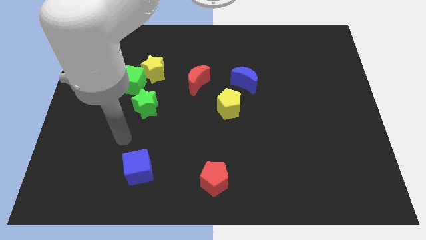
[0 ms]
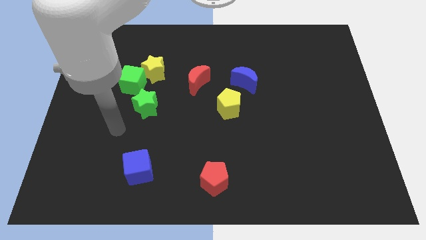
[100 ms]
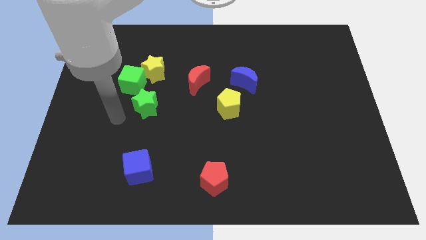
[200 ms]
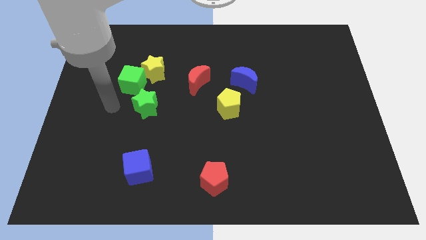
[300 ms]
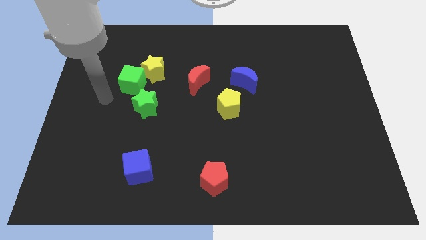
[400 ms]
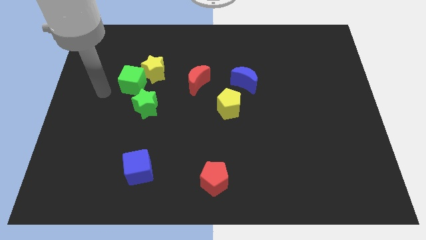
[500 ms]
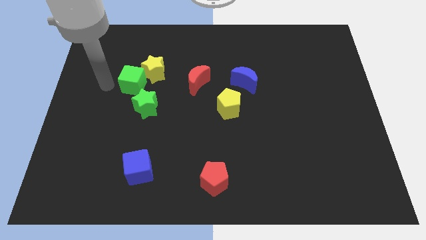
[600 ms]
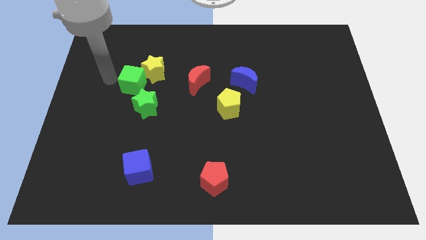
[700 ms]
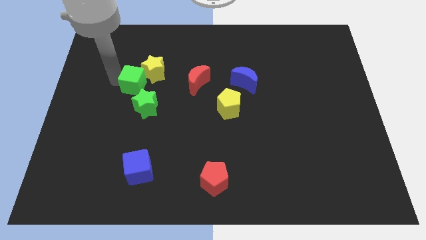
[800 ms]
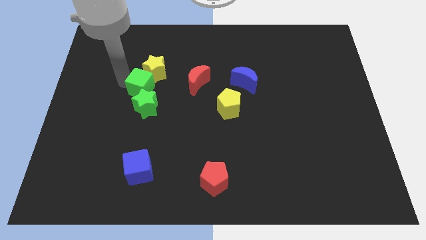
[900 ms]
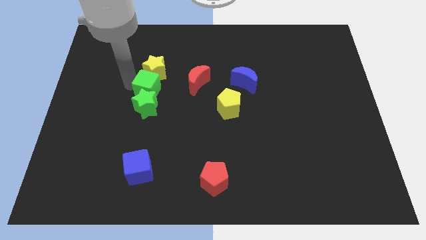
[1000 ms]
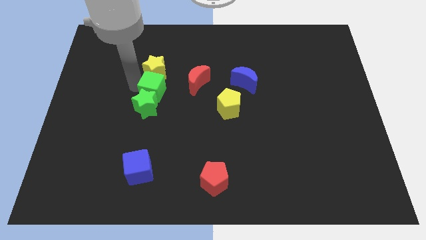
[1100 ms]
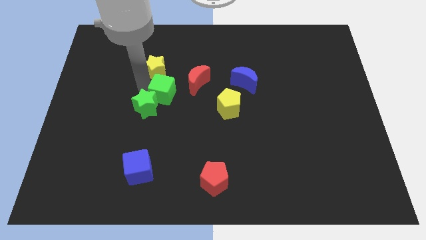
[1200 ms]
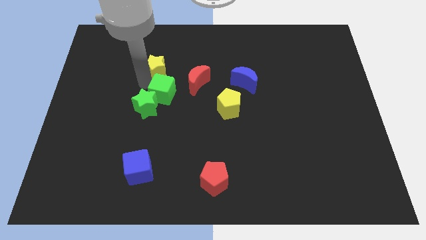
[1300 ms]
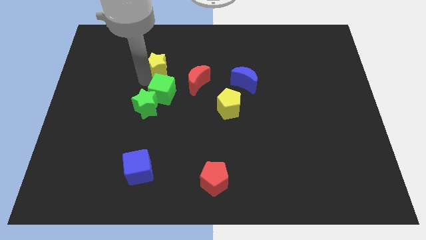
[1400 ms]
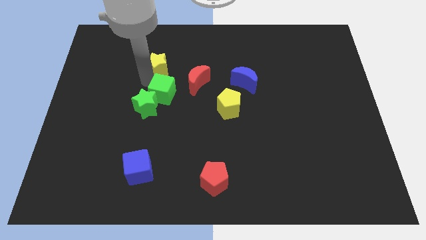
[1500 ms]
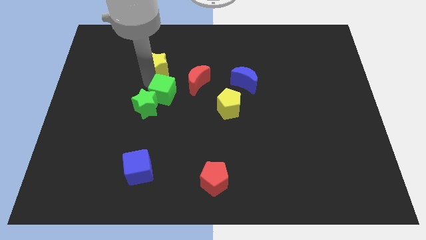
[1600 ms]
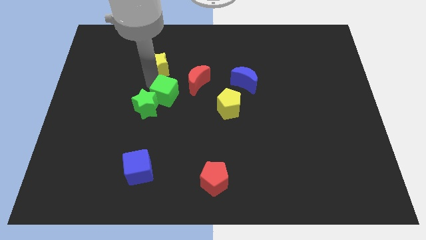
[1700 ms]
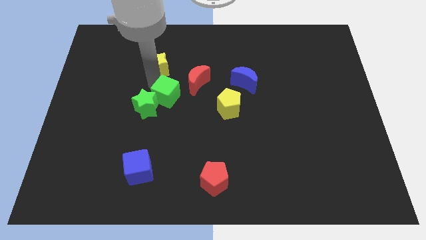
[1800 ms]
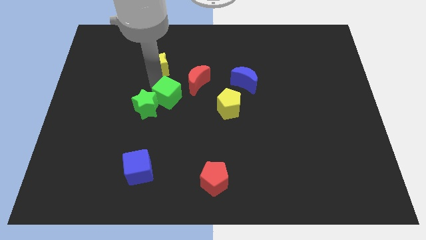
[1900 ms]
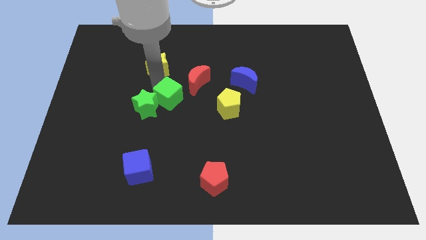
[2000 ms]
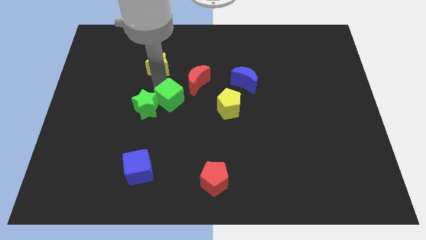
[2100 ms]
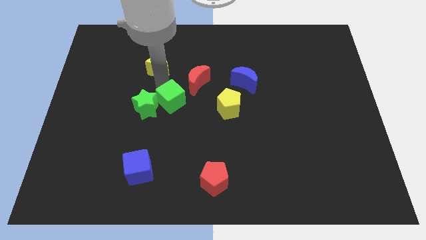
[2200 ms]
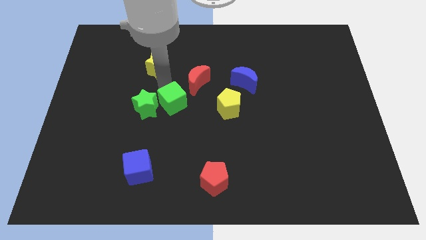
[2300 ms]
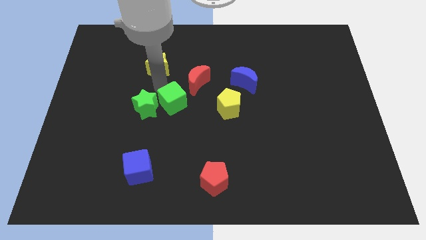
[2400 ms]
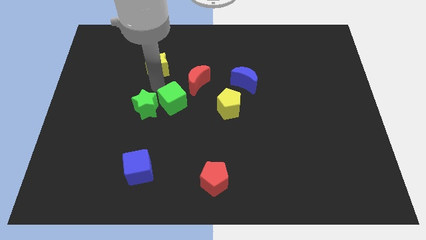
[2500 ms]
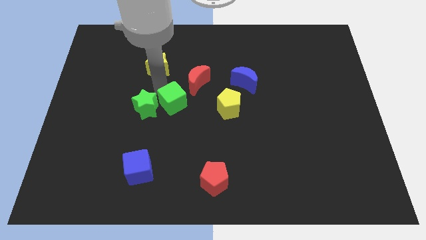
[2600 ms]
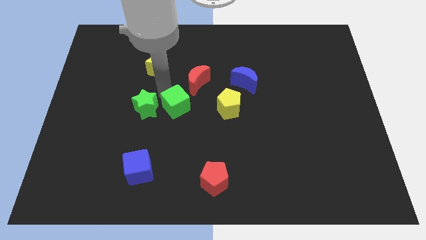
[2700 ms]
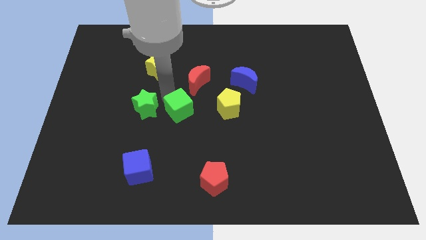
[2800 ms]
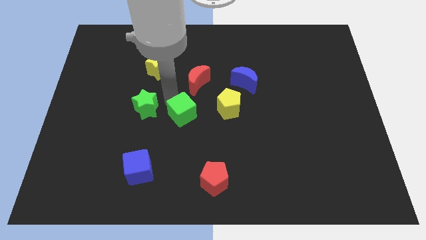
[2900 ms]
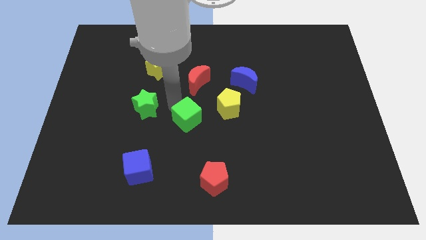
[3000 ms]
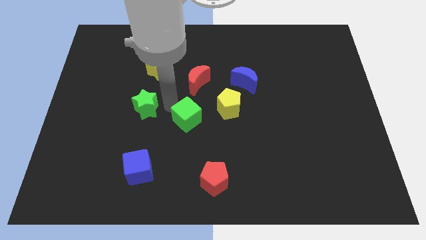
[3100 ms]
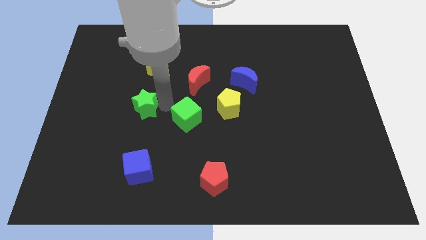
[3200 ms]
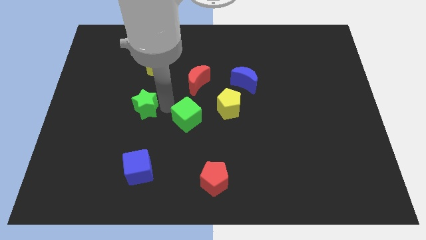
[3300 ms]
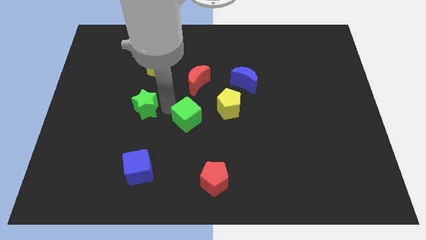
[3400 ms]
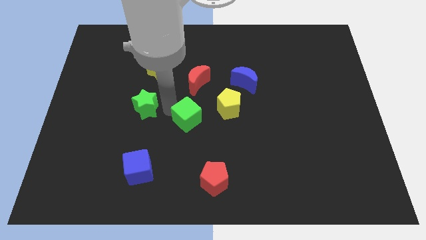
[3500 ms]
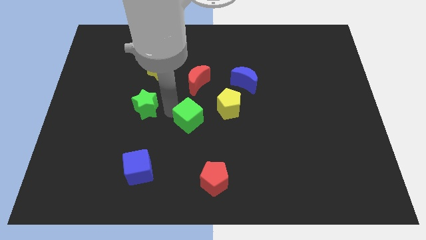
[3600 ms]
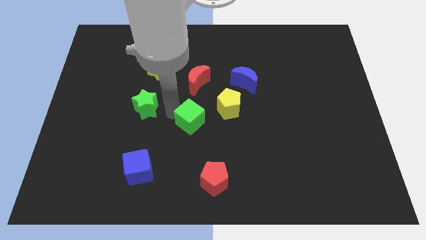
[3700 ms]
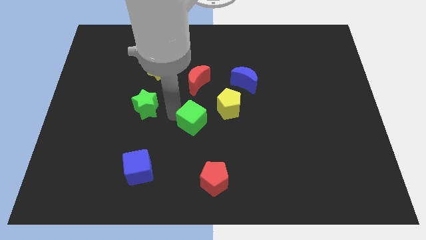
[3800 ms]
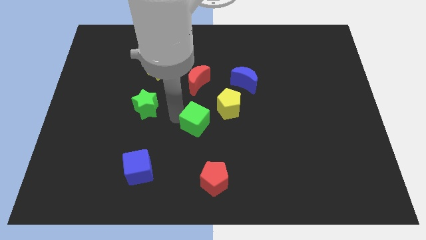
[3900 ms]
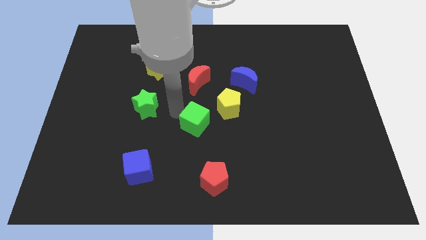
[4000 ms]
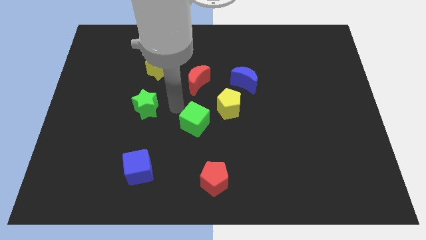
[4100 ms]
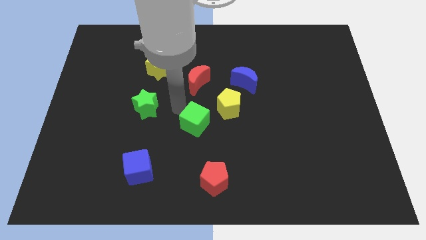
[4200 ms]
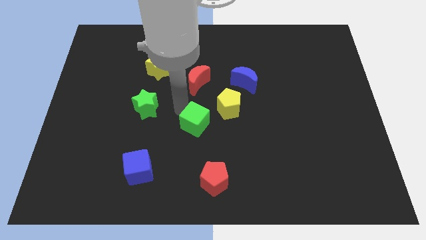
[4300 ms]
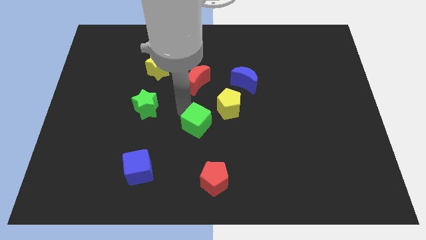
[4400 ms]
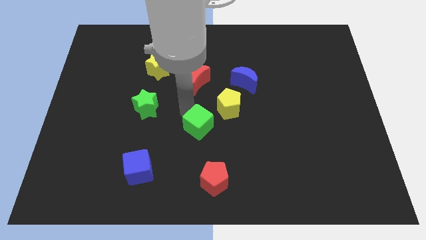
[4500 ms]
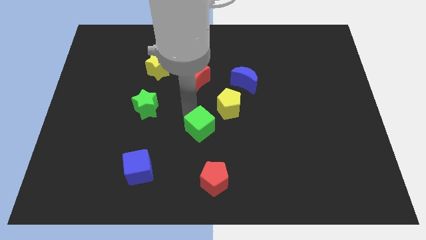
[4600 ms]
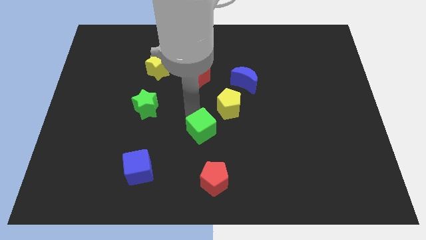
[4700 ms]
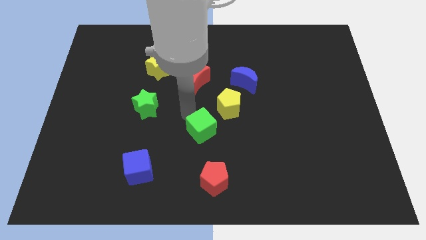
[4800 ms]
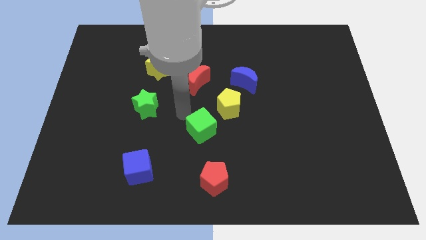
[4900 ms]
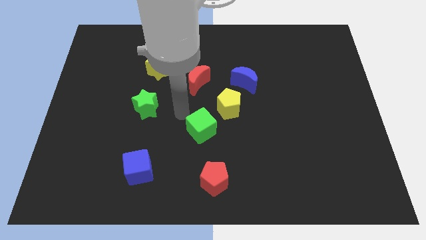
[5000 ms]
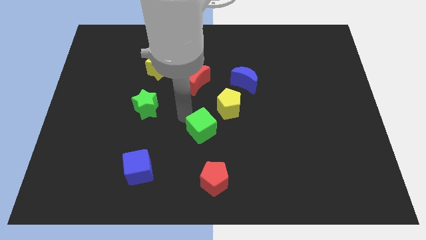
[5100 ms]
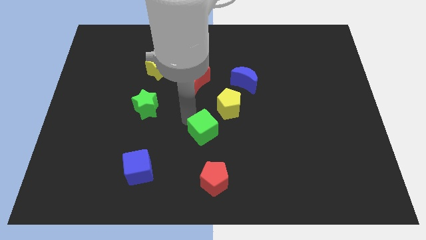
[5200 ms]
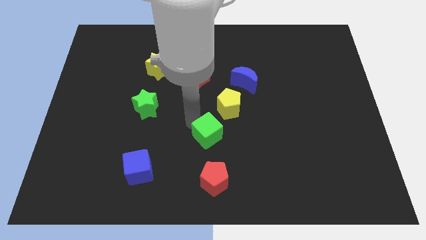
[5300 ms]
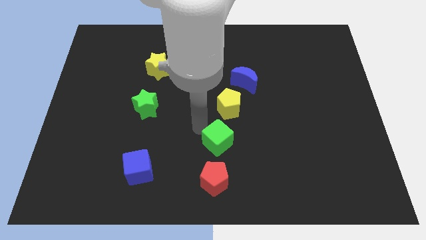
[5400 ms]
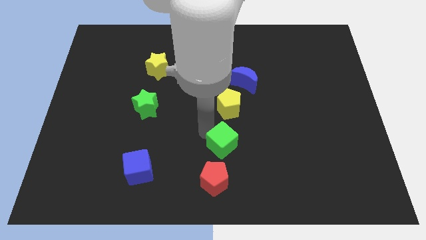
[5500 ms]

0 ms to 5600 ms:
slide the green cube diagonally up and to the right of the red pentagon

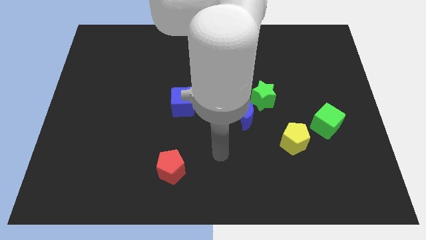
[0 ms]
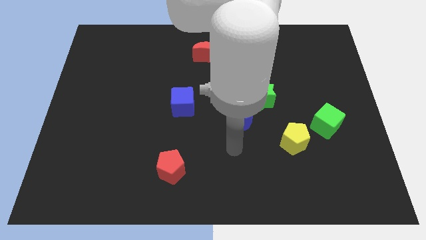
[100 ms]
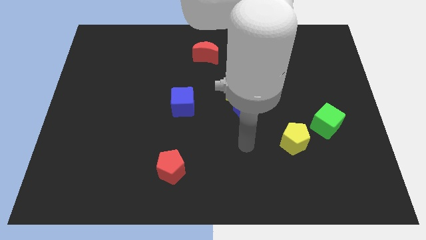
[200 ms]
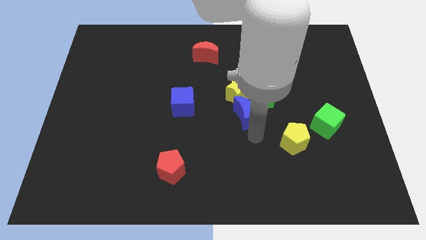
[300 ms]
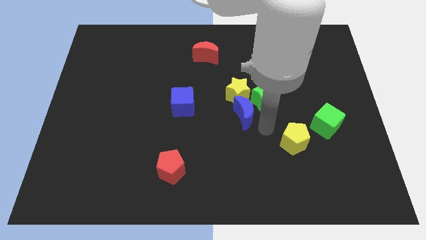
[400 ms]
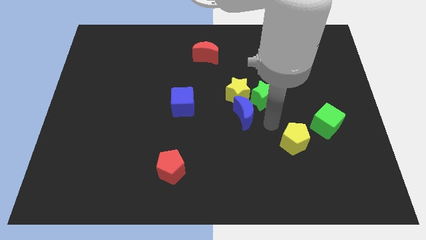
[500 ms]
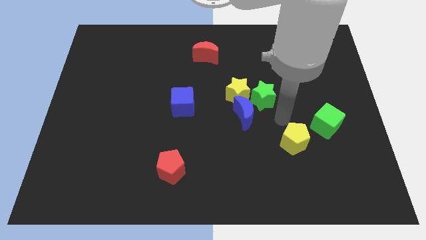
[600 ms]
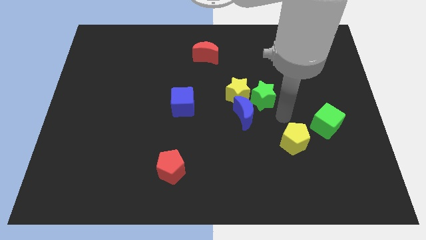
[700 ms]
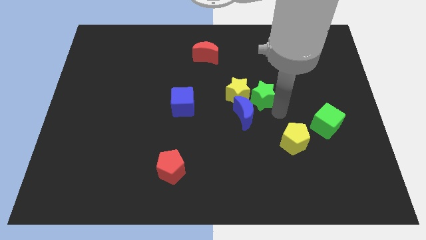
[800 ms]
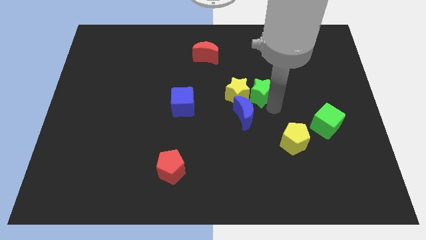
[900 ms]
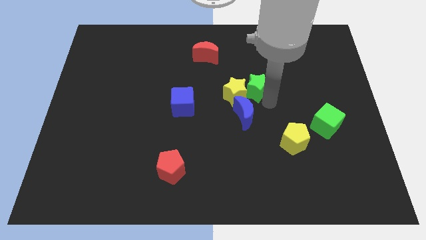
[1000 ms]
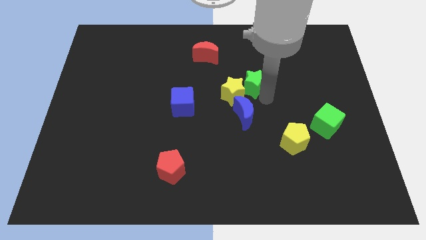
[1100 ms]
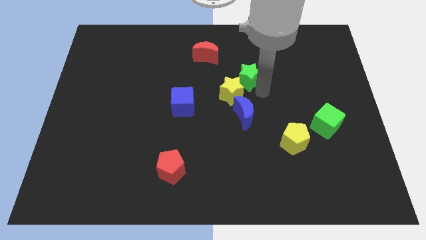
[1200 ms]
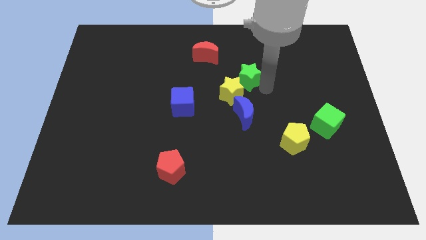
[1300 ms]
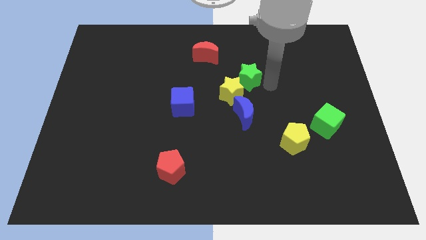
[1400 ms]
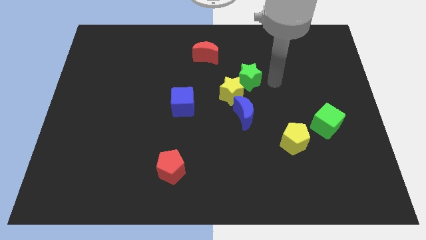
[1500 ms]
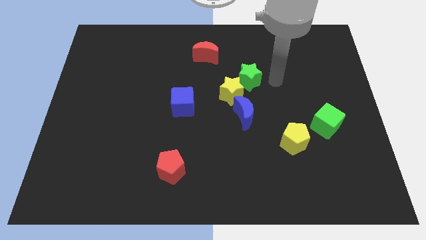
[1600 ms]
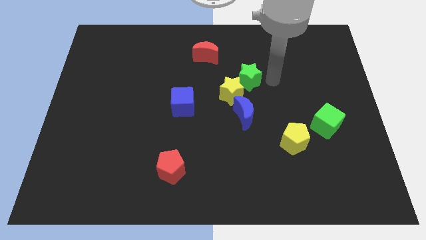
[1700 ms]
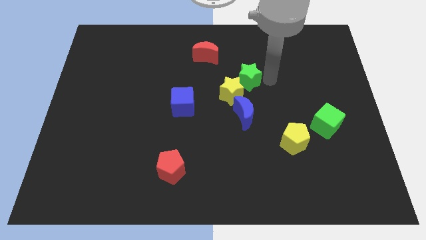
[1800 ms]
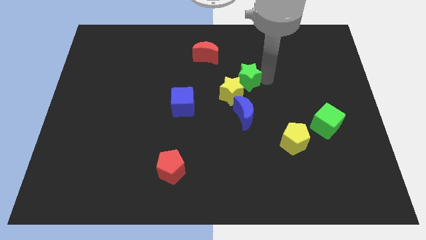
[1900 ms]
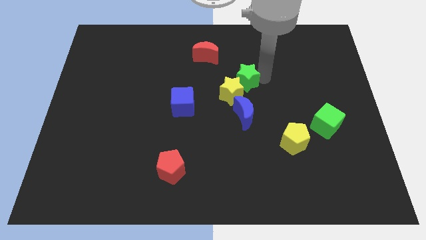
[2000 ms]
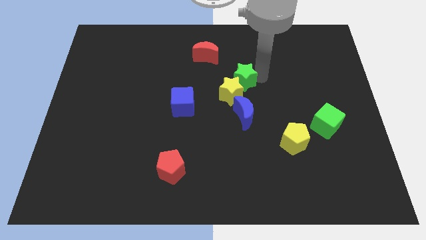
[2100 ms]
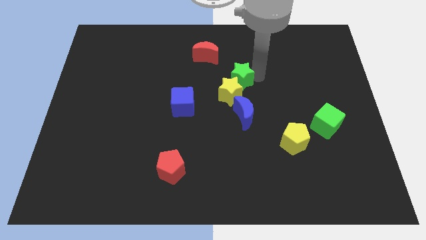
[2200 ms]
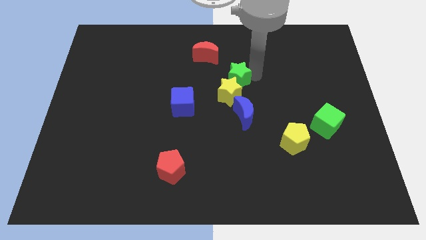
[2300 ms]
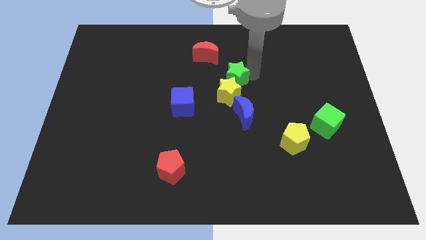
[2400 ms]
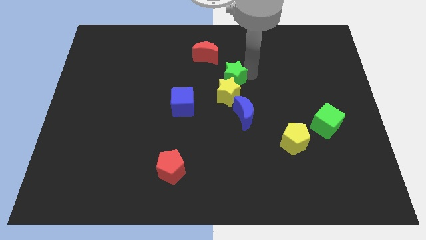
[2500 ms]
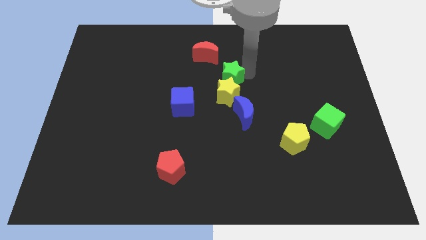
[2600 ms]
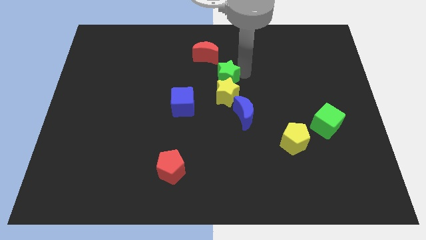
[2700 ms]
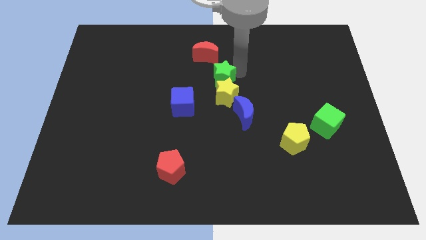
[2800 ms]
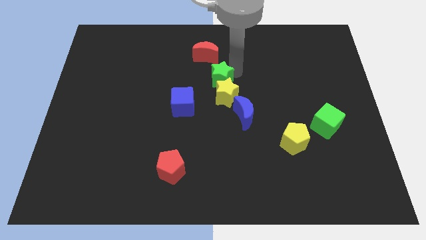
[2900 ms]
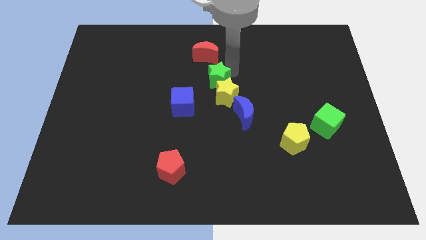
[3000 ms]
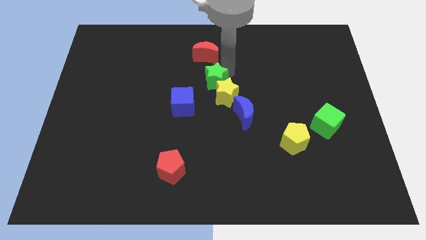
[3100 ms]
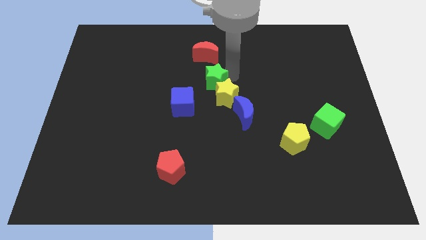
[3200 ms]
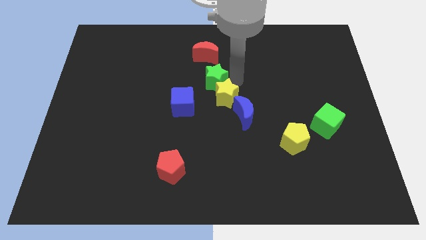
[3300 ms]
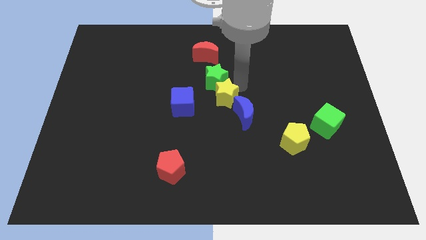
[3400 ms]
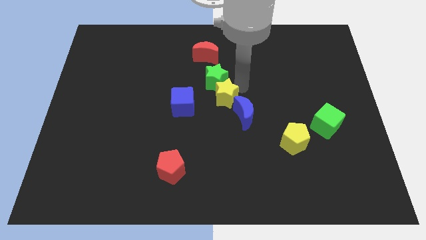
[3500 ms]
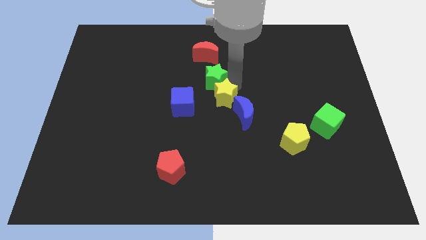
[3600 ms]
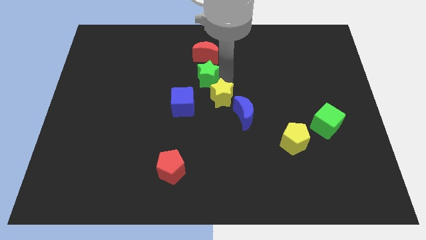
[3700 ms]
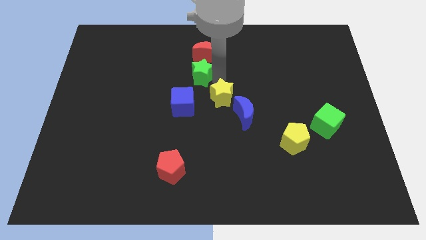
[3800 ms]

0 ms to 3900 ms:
put the green star above the blue cube
